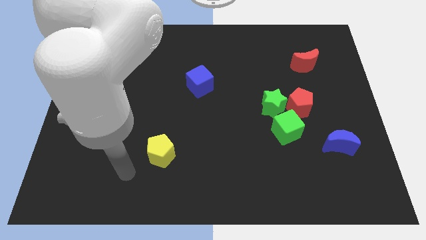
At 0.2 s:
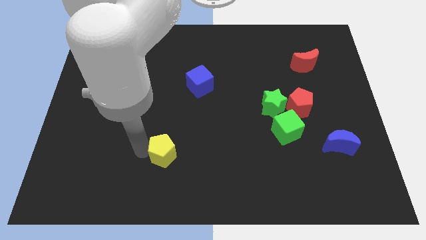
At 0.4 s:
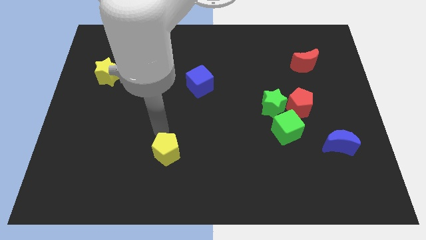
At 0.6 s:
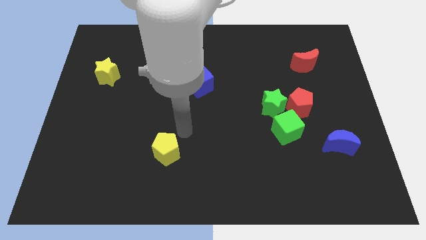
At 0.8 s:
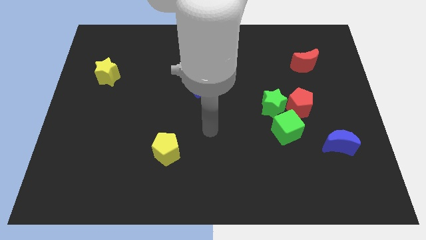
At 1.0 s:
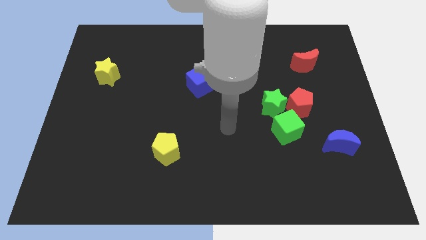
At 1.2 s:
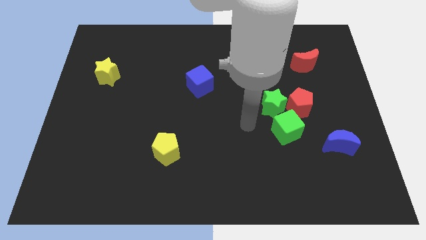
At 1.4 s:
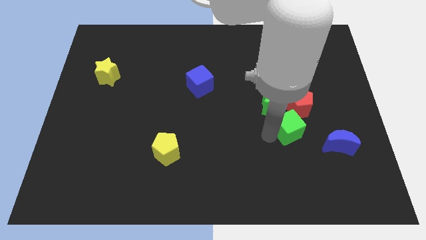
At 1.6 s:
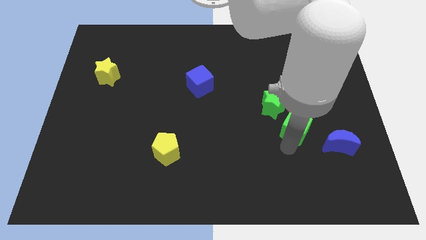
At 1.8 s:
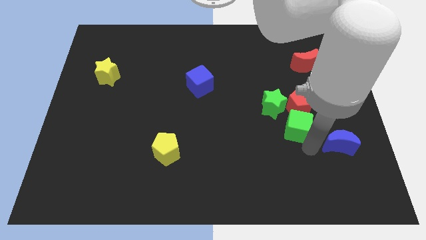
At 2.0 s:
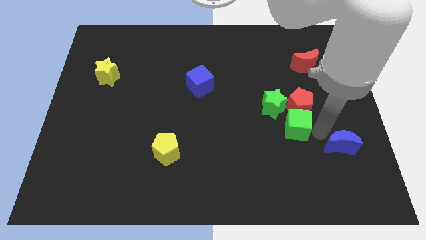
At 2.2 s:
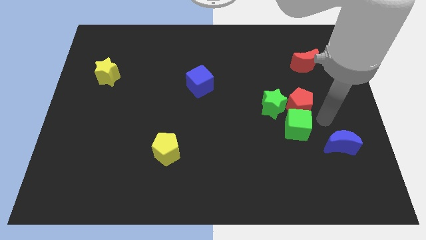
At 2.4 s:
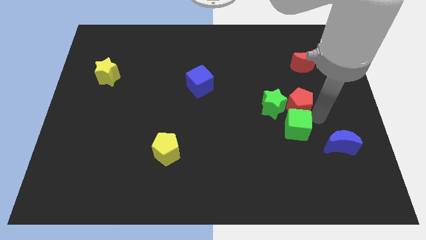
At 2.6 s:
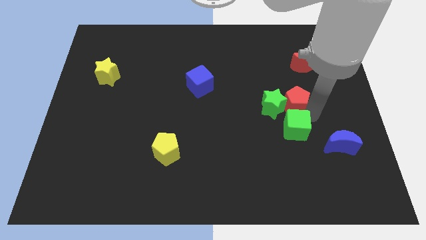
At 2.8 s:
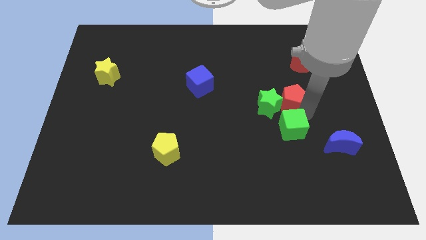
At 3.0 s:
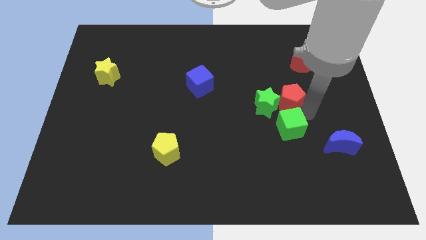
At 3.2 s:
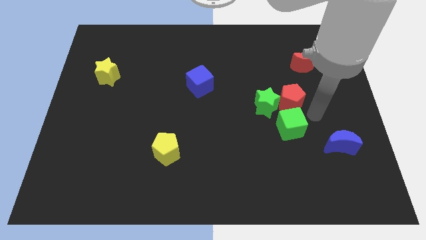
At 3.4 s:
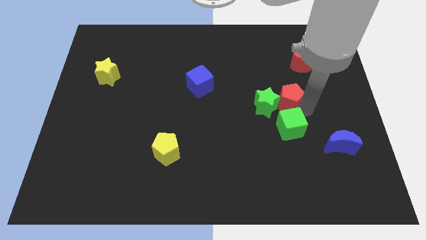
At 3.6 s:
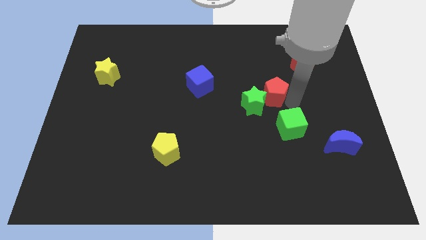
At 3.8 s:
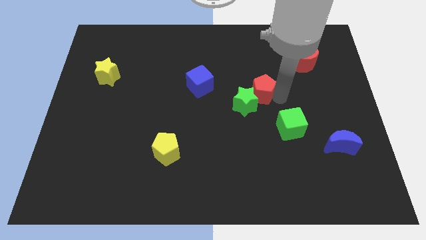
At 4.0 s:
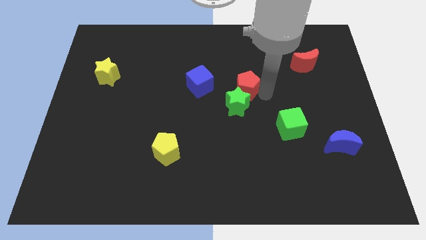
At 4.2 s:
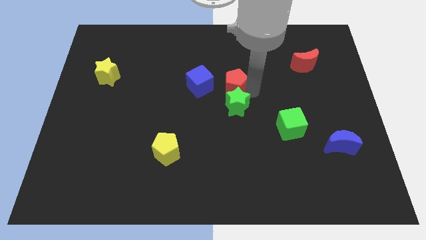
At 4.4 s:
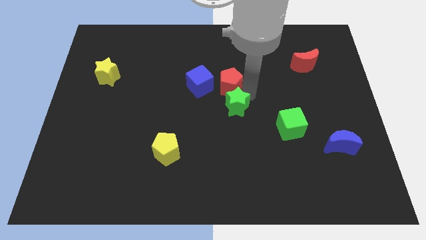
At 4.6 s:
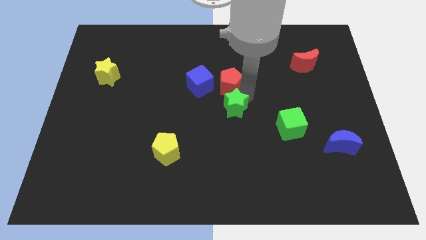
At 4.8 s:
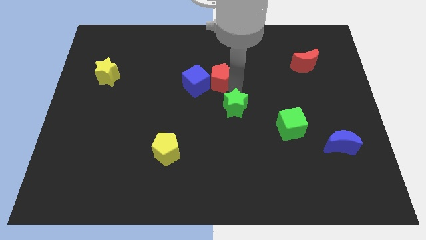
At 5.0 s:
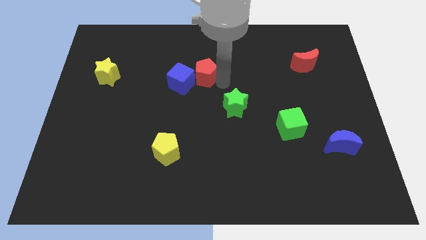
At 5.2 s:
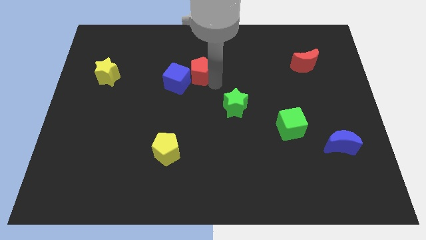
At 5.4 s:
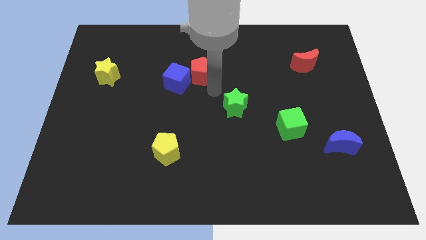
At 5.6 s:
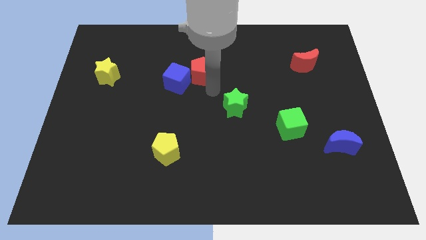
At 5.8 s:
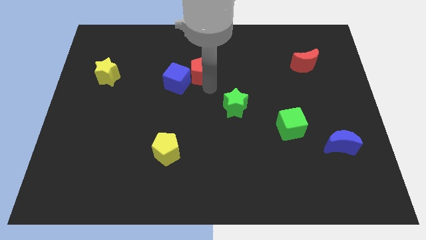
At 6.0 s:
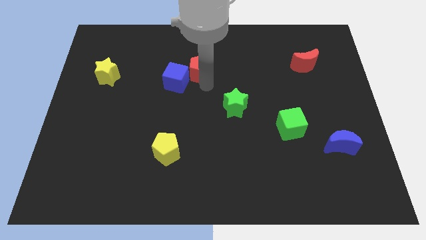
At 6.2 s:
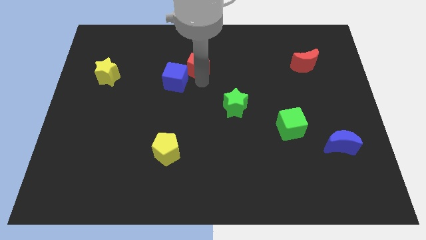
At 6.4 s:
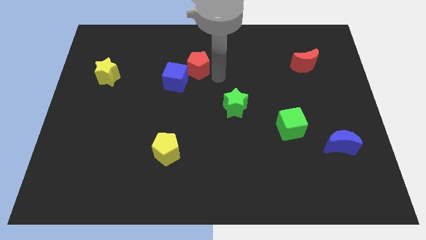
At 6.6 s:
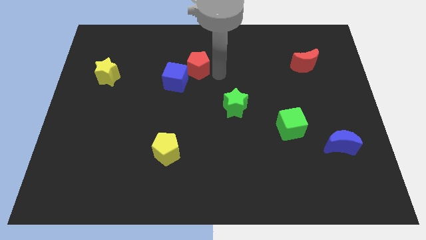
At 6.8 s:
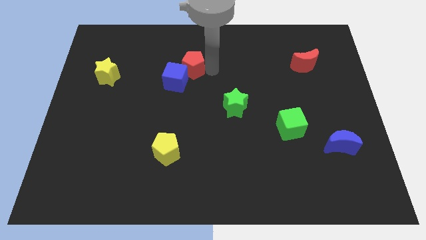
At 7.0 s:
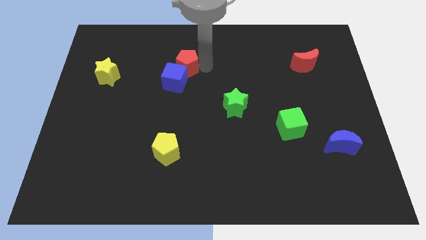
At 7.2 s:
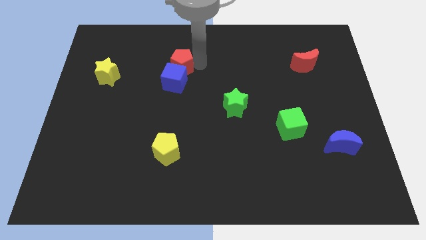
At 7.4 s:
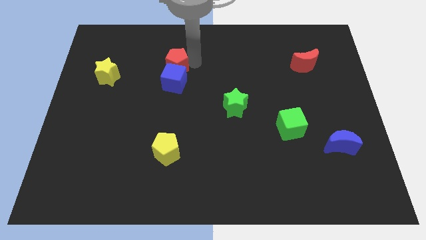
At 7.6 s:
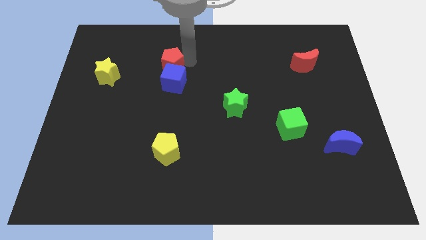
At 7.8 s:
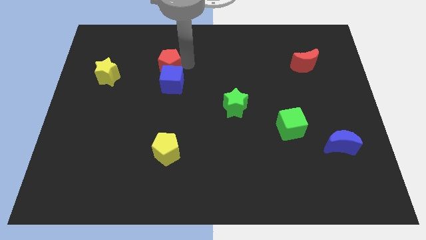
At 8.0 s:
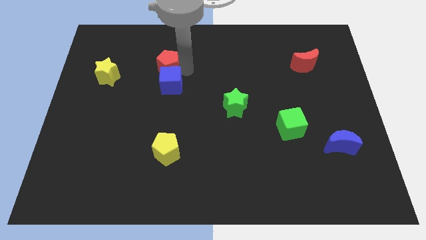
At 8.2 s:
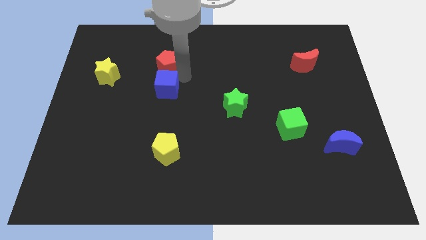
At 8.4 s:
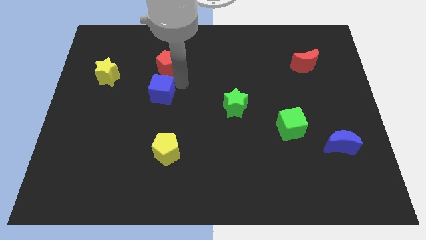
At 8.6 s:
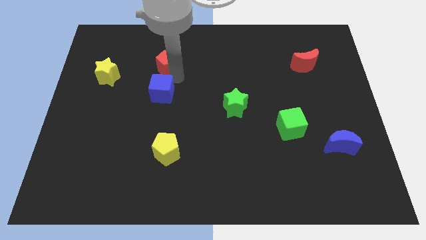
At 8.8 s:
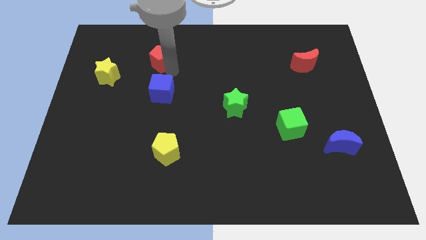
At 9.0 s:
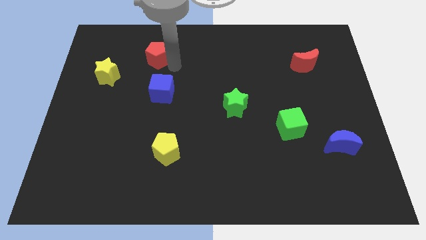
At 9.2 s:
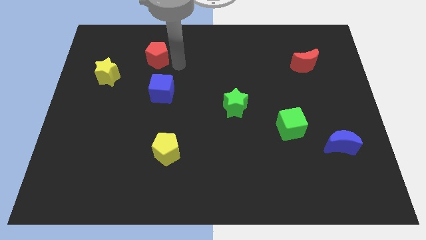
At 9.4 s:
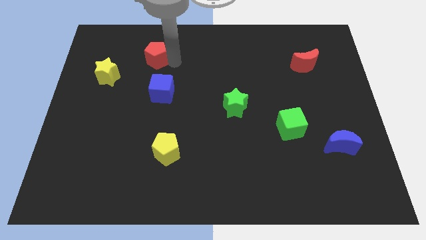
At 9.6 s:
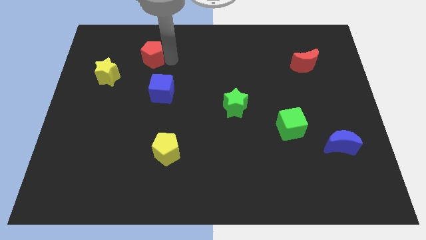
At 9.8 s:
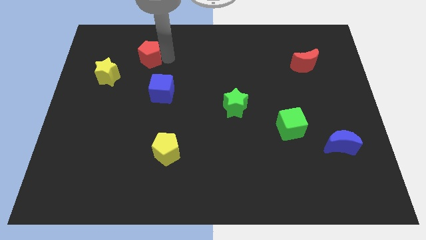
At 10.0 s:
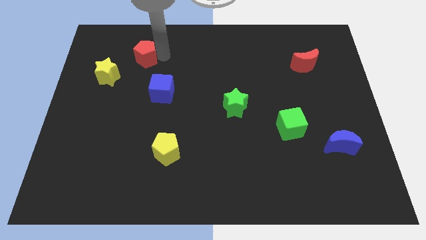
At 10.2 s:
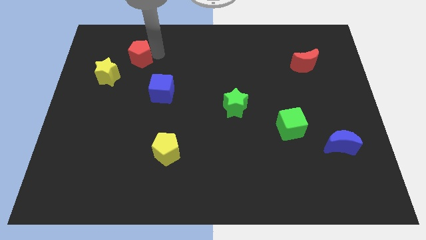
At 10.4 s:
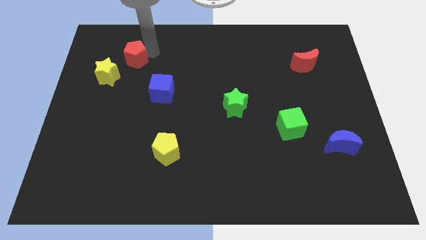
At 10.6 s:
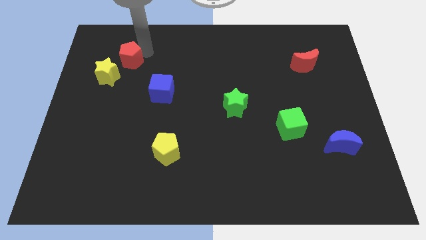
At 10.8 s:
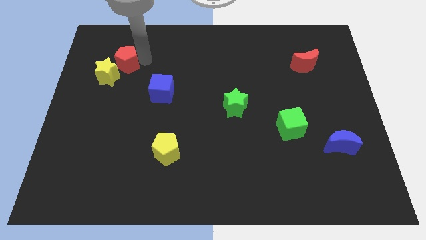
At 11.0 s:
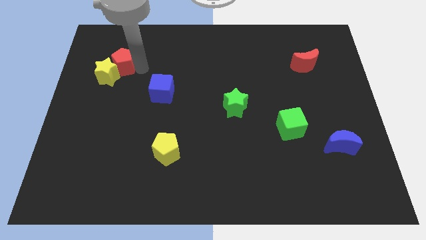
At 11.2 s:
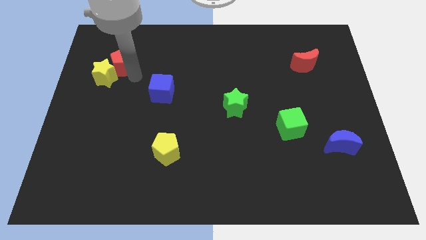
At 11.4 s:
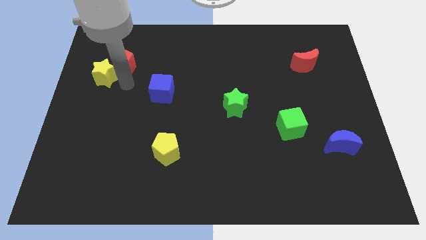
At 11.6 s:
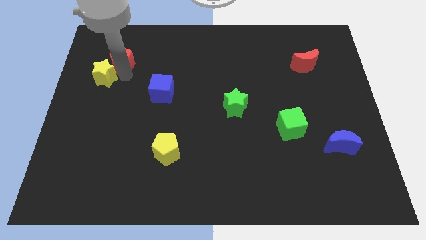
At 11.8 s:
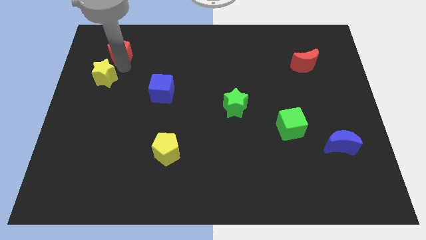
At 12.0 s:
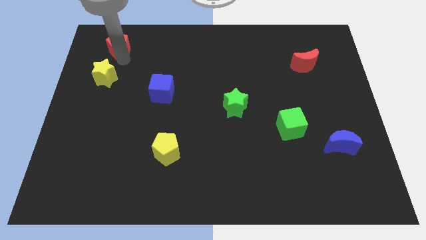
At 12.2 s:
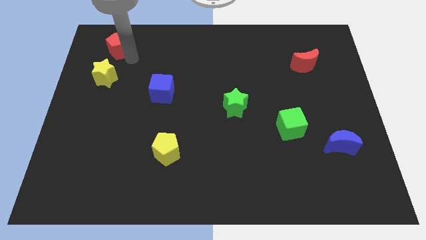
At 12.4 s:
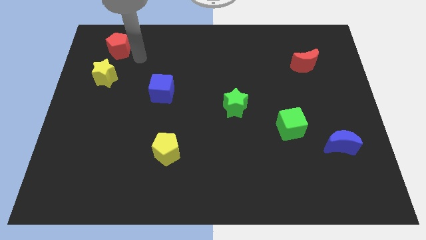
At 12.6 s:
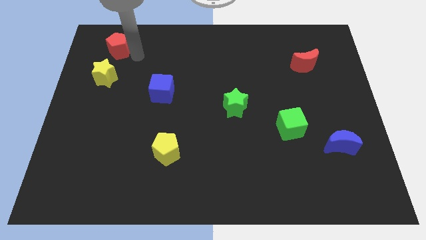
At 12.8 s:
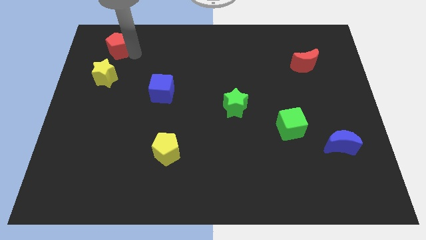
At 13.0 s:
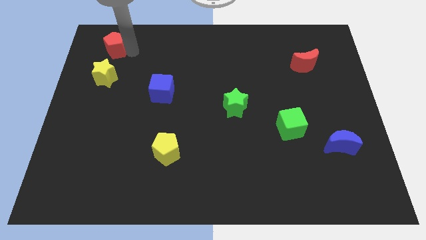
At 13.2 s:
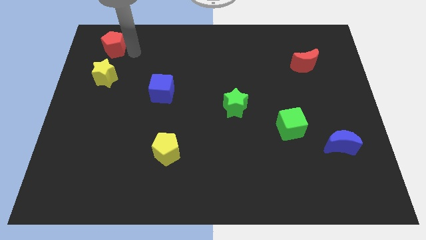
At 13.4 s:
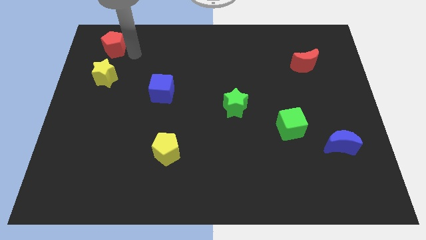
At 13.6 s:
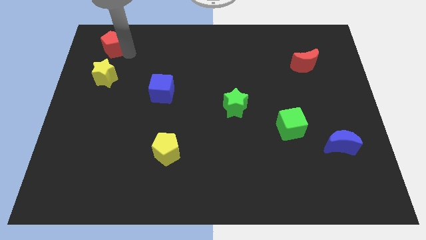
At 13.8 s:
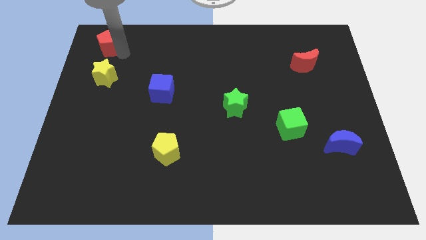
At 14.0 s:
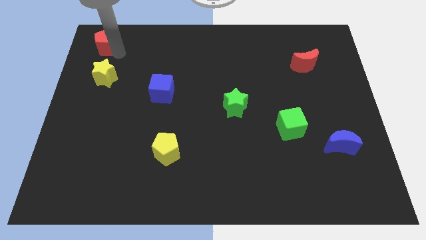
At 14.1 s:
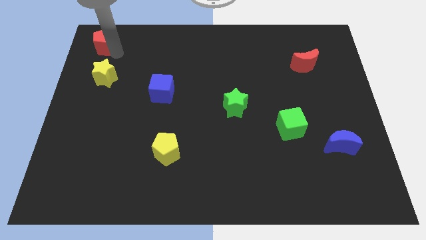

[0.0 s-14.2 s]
slide the red pentagon to the upper left corner
